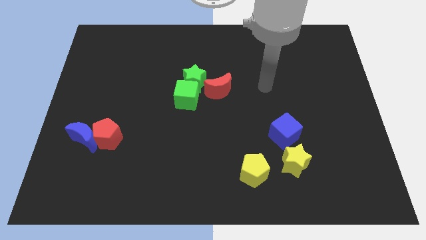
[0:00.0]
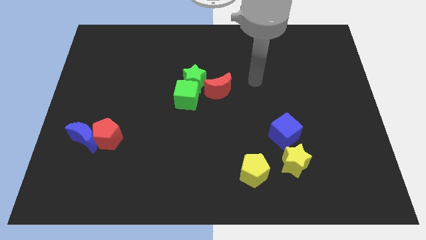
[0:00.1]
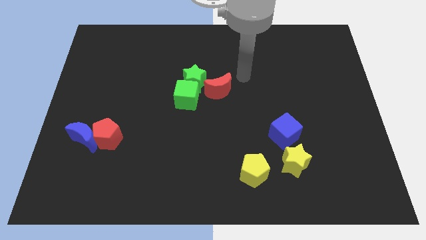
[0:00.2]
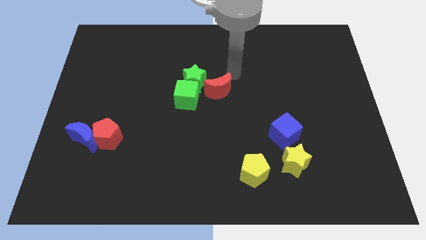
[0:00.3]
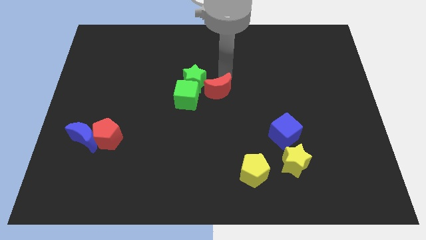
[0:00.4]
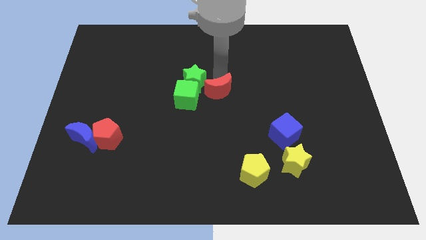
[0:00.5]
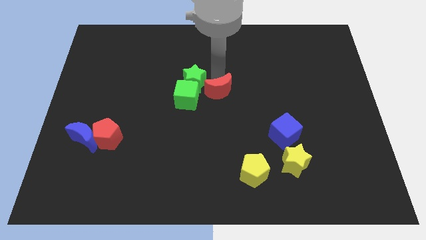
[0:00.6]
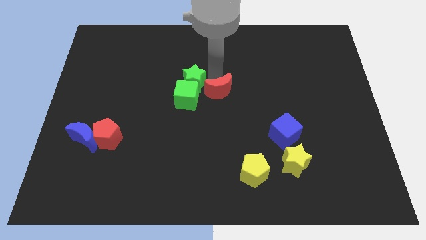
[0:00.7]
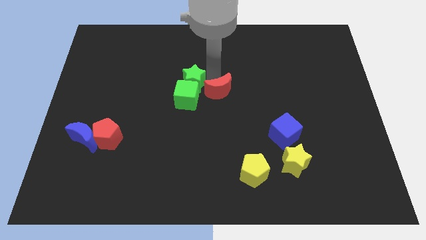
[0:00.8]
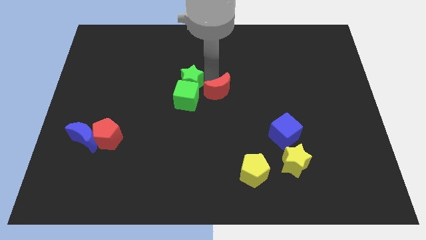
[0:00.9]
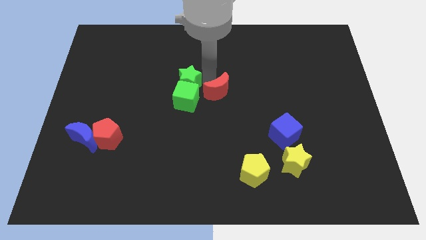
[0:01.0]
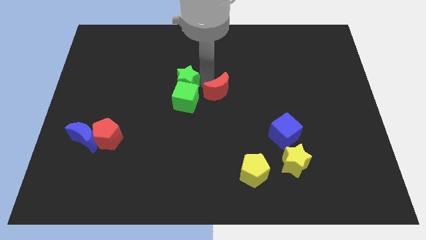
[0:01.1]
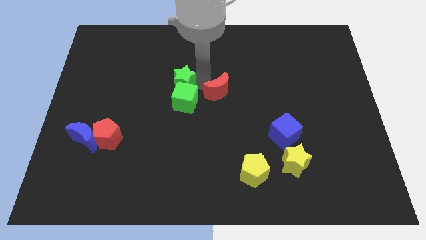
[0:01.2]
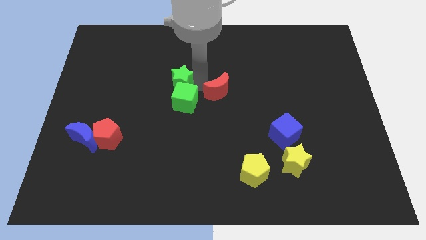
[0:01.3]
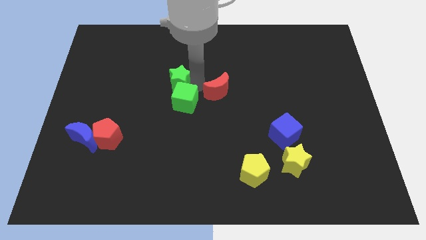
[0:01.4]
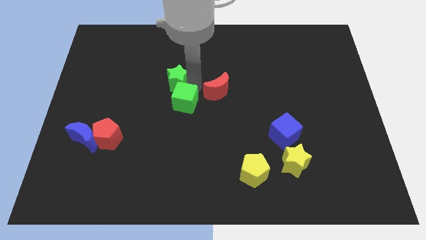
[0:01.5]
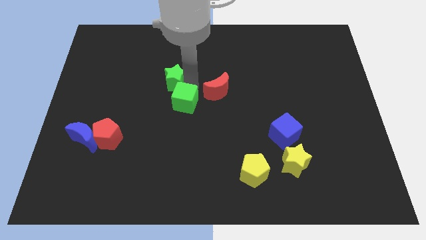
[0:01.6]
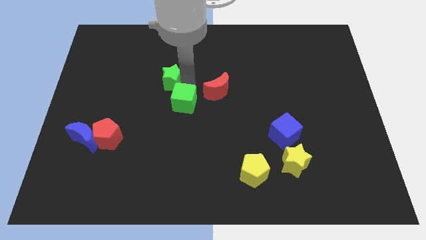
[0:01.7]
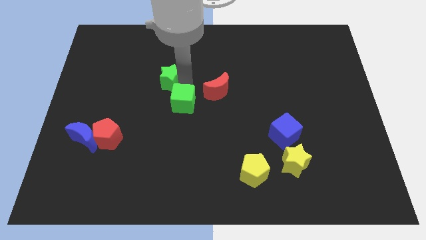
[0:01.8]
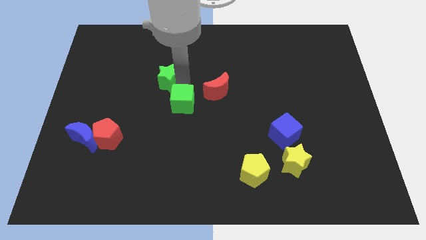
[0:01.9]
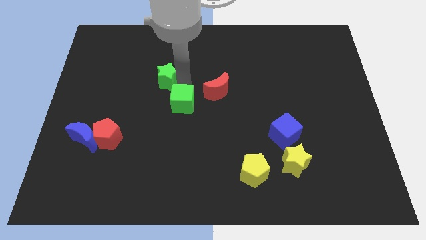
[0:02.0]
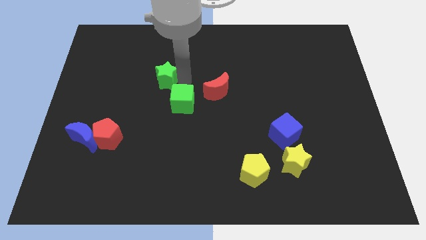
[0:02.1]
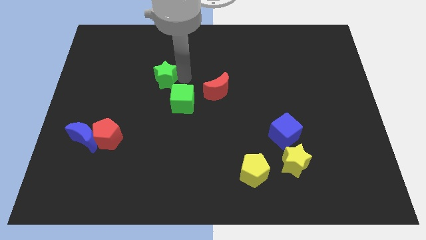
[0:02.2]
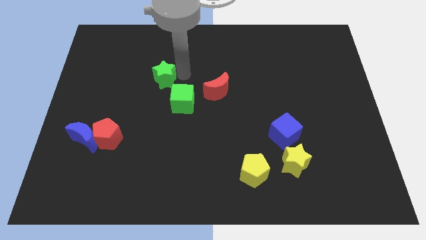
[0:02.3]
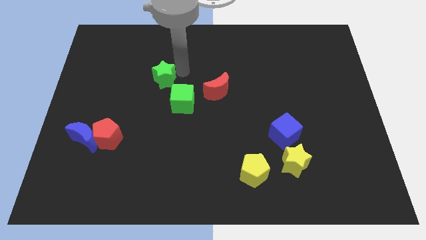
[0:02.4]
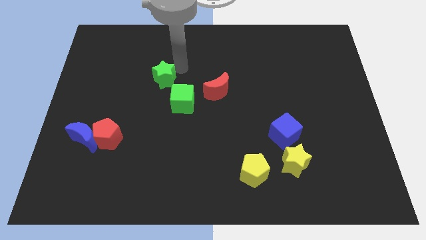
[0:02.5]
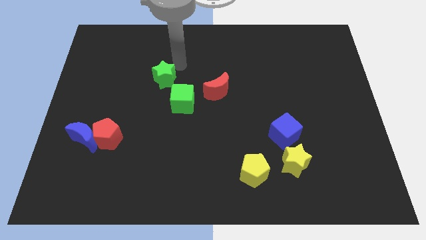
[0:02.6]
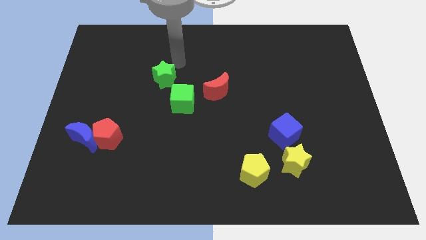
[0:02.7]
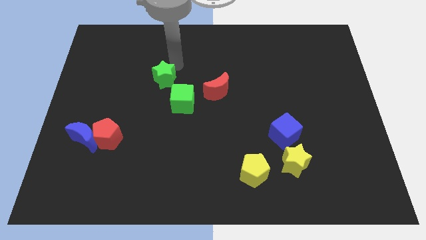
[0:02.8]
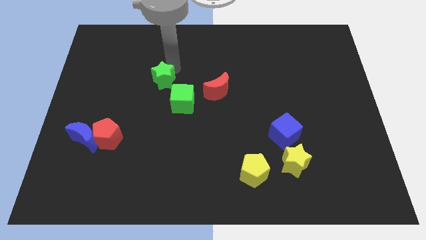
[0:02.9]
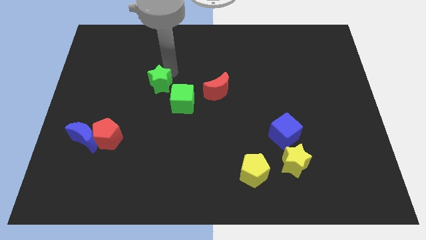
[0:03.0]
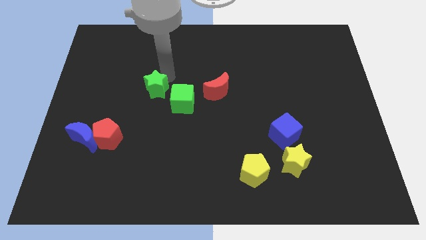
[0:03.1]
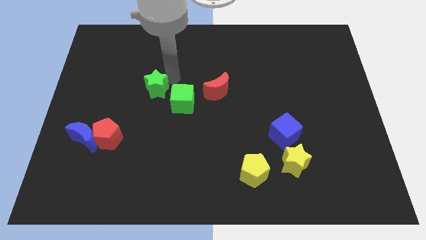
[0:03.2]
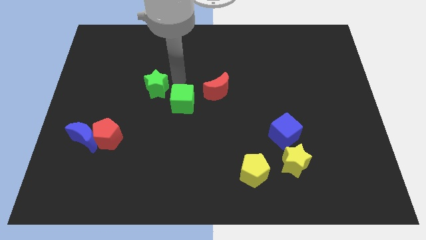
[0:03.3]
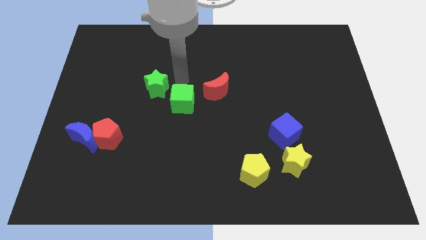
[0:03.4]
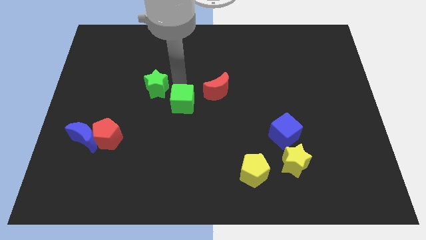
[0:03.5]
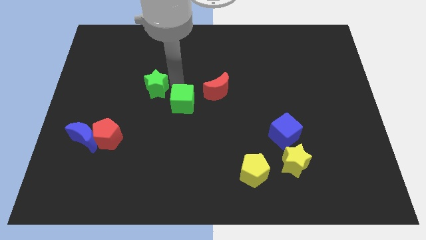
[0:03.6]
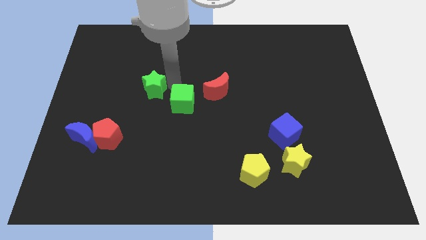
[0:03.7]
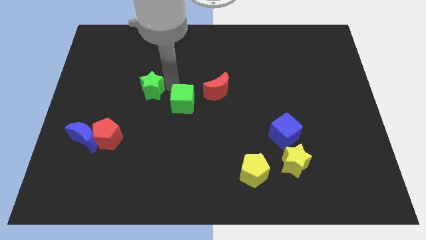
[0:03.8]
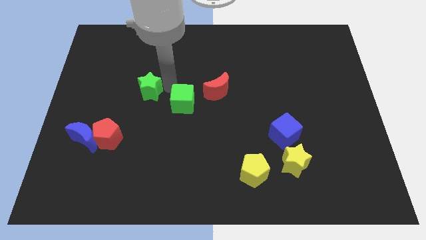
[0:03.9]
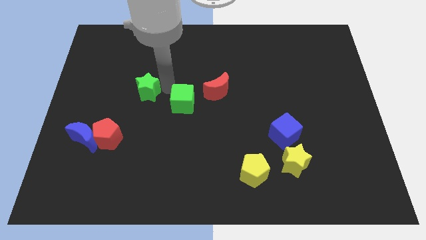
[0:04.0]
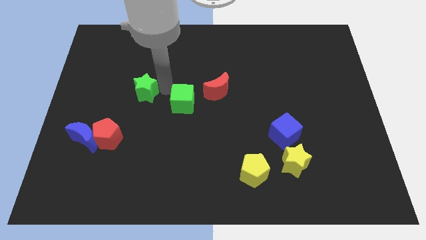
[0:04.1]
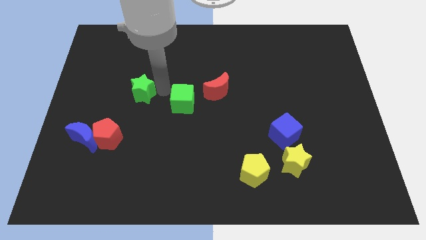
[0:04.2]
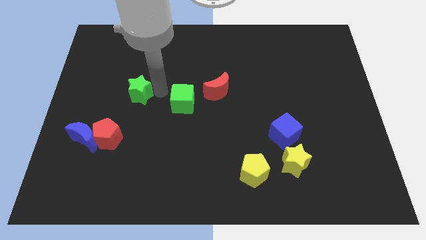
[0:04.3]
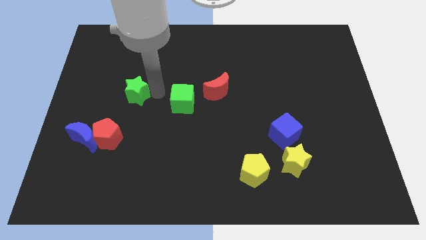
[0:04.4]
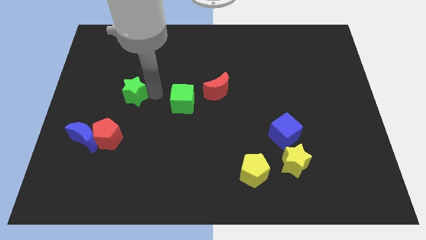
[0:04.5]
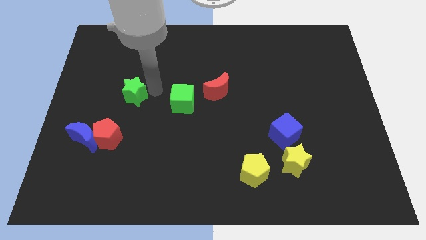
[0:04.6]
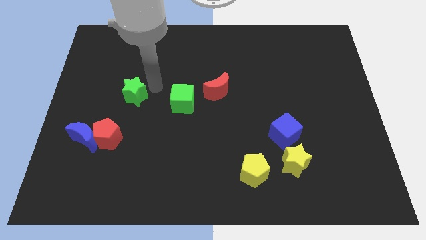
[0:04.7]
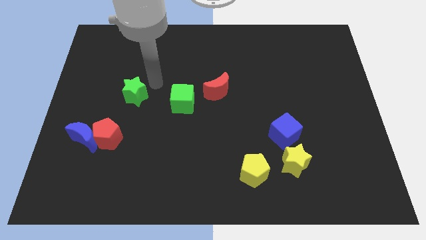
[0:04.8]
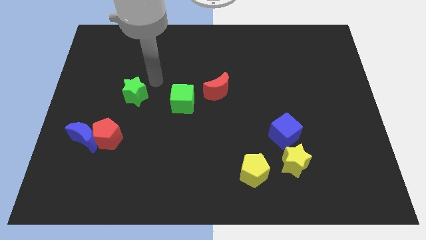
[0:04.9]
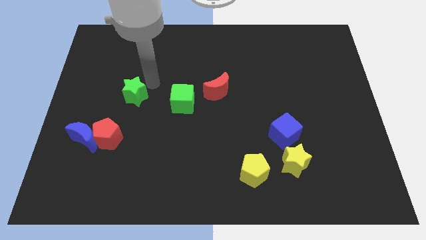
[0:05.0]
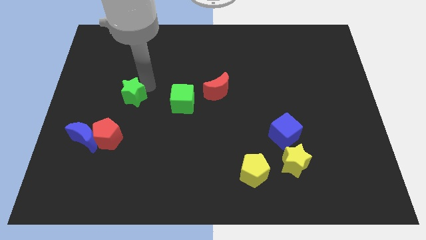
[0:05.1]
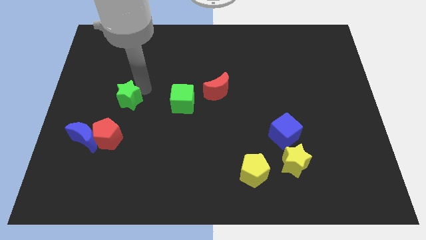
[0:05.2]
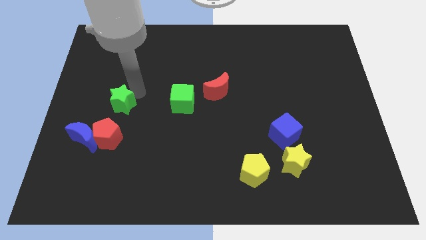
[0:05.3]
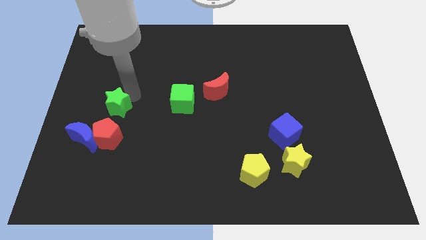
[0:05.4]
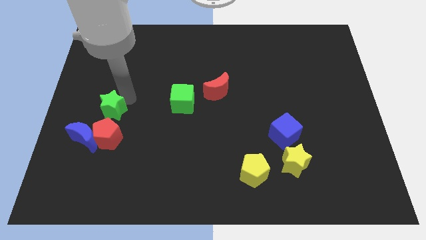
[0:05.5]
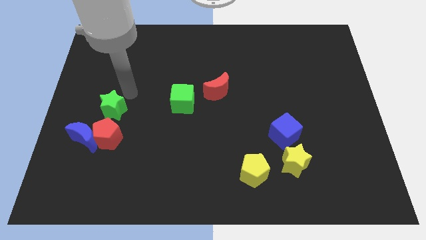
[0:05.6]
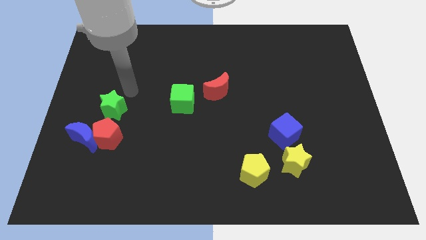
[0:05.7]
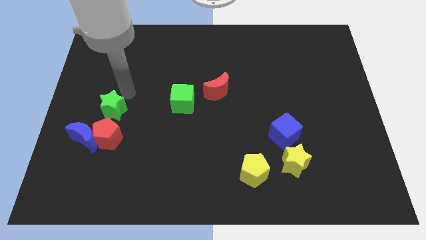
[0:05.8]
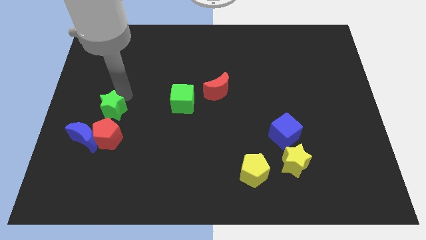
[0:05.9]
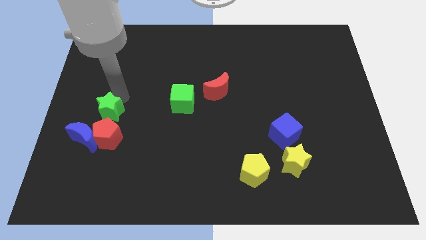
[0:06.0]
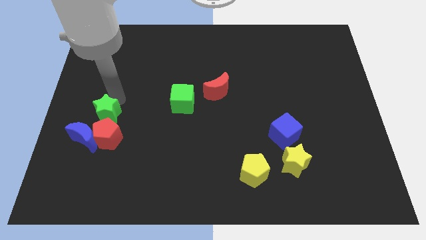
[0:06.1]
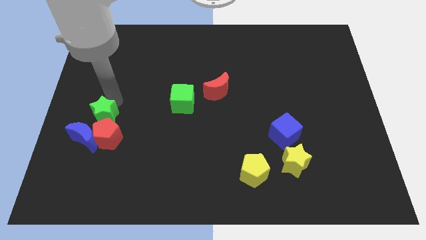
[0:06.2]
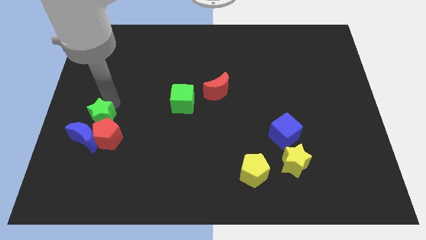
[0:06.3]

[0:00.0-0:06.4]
move the green star next to the blue moon

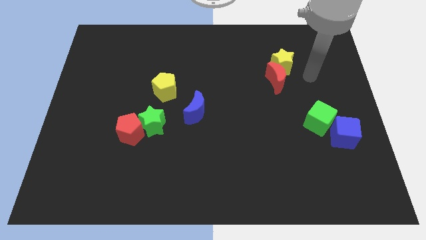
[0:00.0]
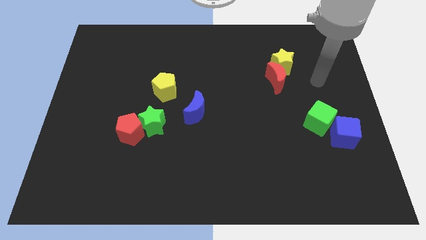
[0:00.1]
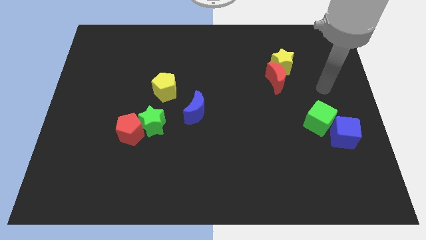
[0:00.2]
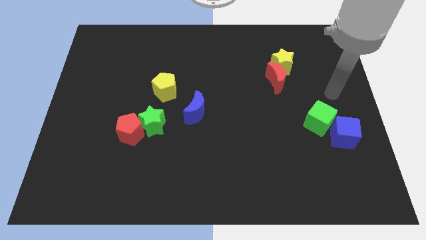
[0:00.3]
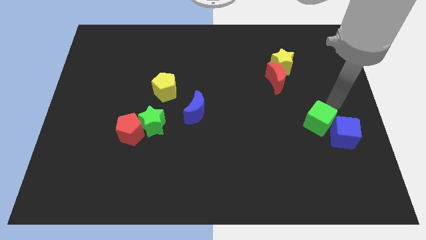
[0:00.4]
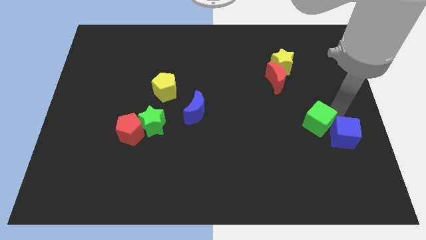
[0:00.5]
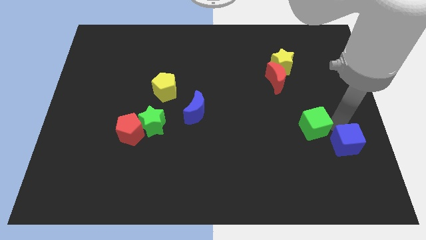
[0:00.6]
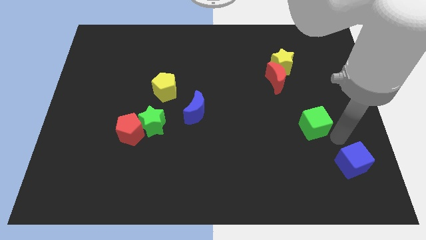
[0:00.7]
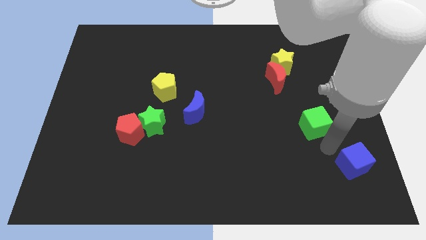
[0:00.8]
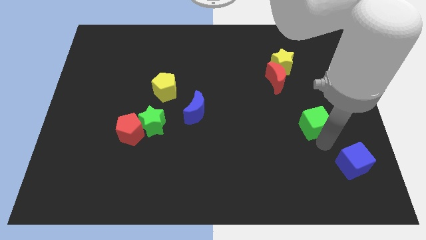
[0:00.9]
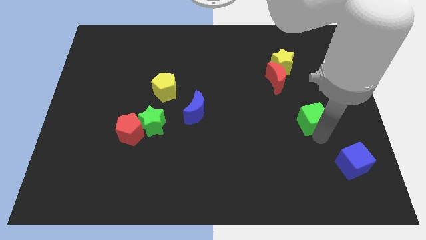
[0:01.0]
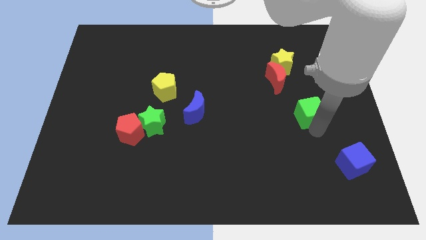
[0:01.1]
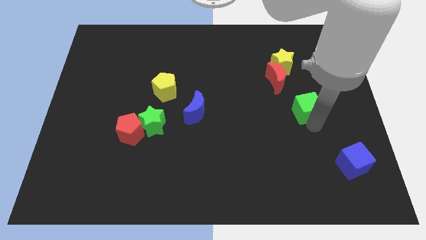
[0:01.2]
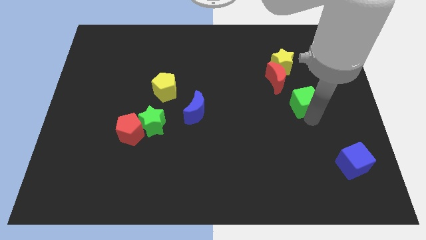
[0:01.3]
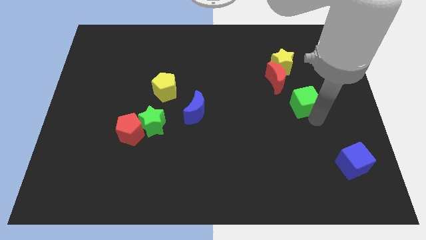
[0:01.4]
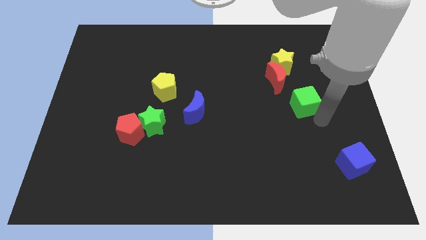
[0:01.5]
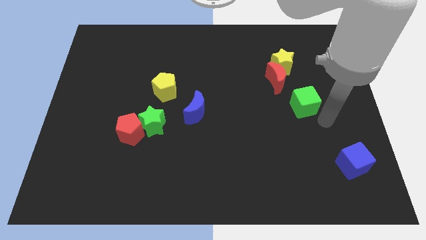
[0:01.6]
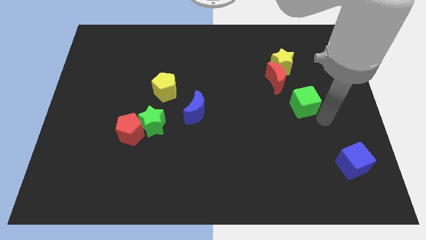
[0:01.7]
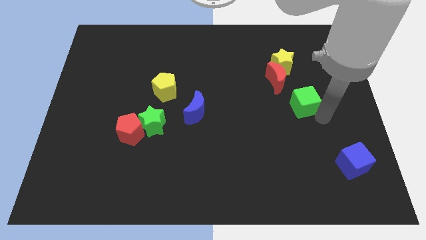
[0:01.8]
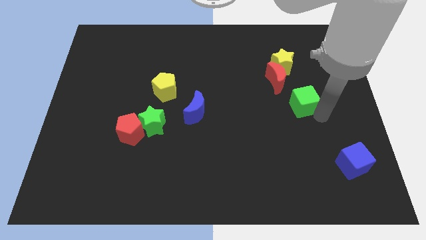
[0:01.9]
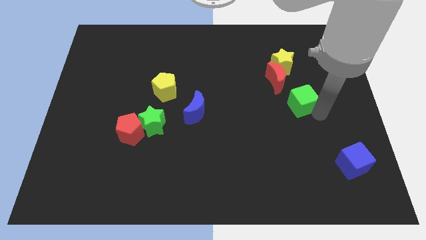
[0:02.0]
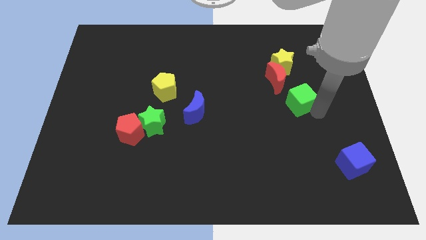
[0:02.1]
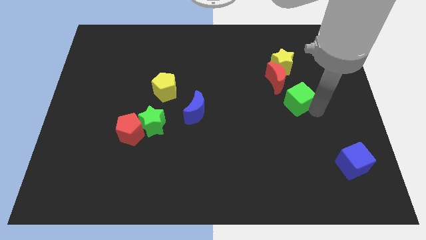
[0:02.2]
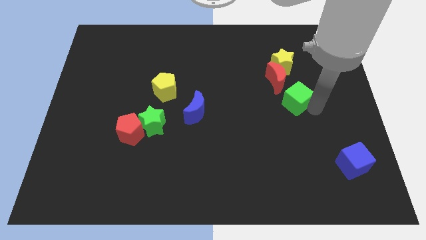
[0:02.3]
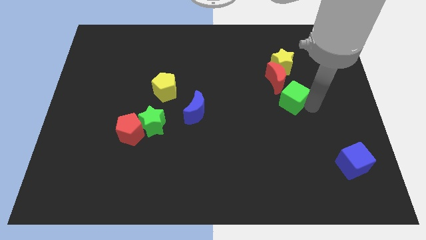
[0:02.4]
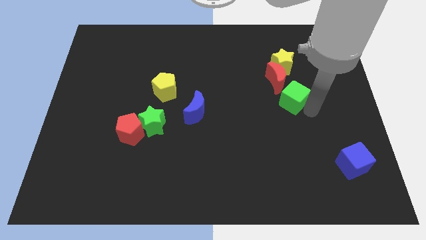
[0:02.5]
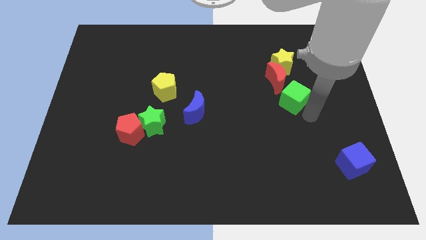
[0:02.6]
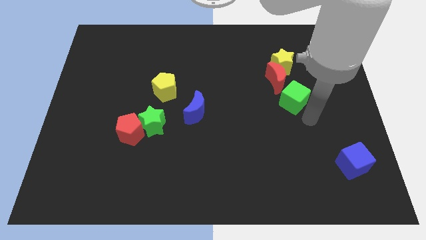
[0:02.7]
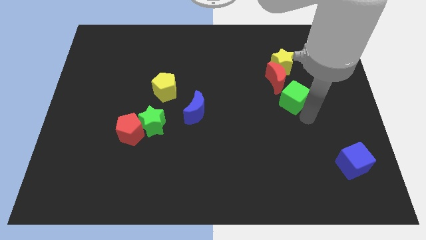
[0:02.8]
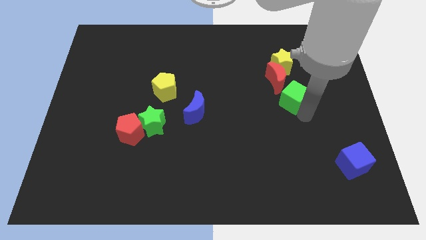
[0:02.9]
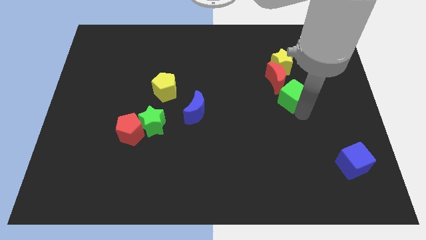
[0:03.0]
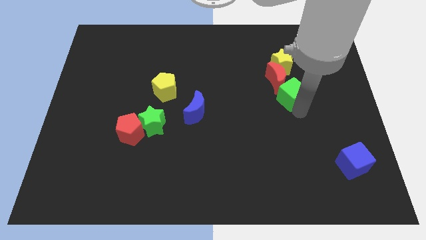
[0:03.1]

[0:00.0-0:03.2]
push the green cube to the red moon
